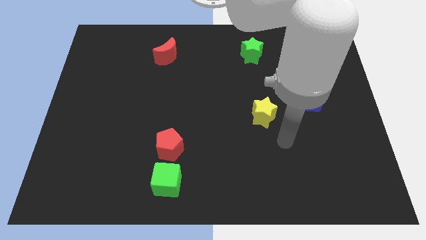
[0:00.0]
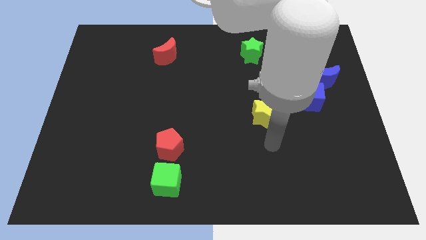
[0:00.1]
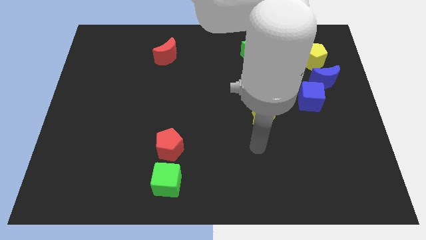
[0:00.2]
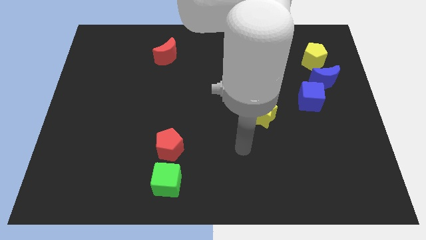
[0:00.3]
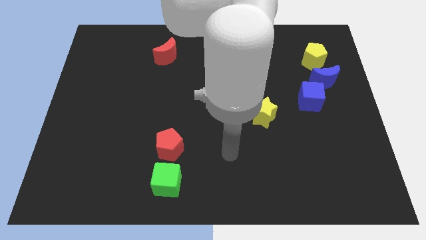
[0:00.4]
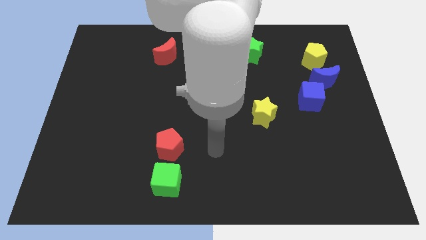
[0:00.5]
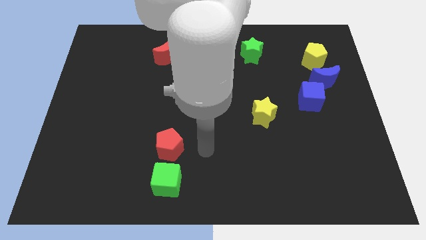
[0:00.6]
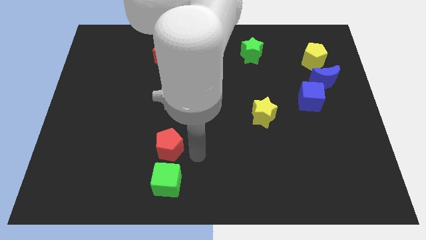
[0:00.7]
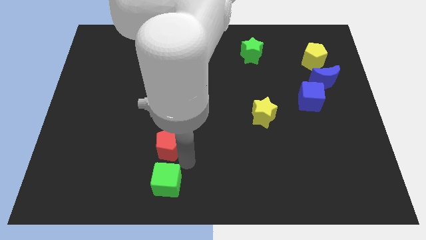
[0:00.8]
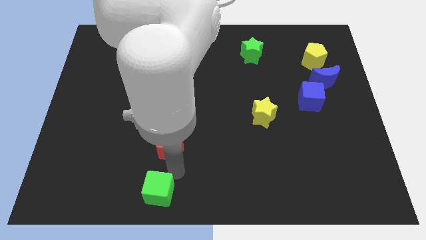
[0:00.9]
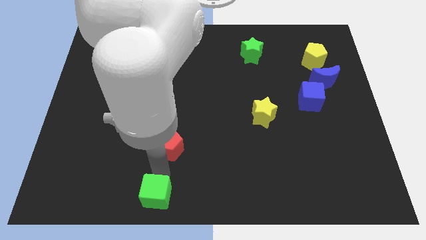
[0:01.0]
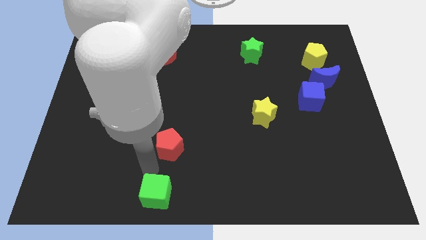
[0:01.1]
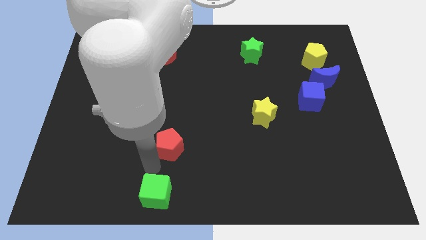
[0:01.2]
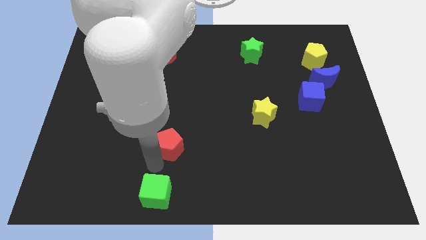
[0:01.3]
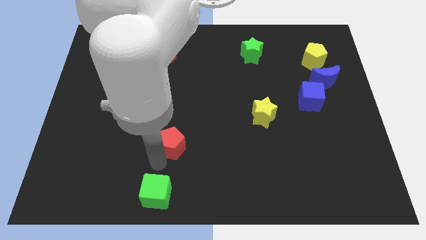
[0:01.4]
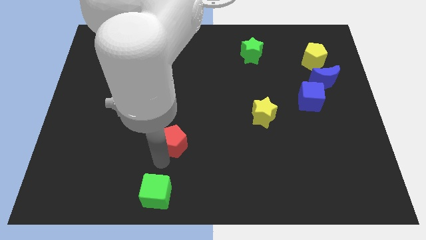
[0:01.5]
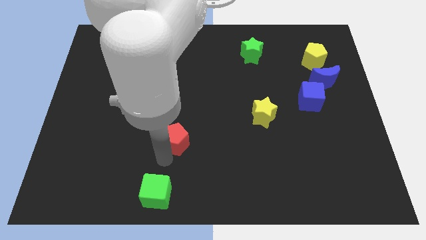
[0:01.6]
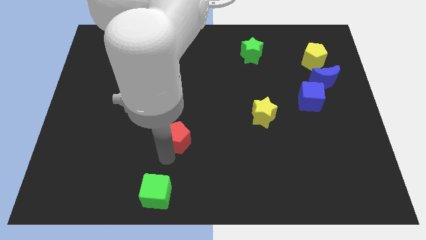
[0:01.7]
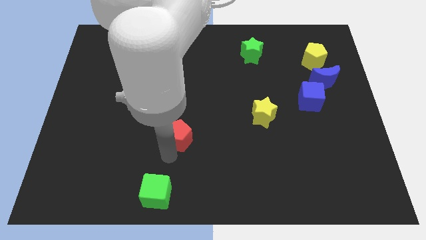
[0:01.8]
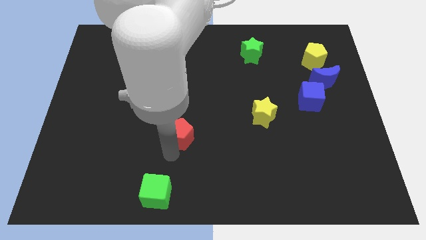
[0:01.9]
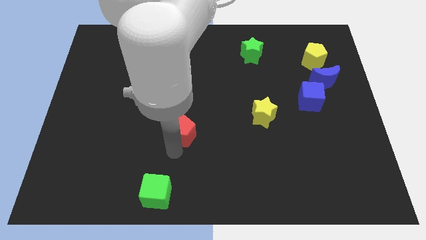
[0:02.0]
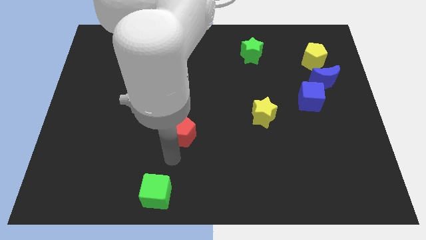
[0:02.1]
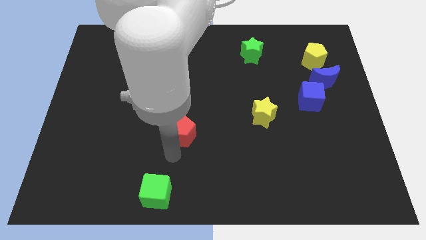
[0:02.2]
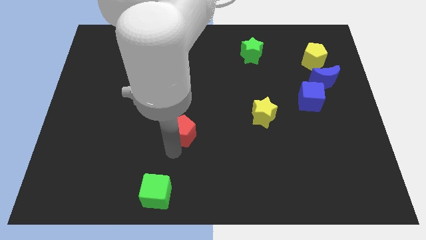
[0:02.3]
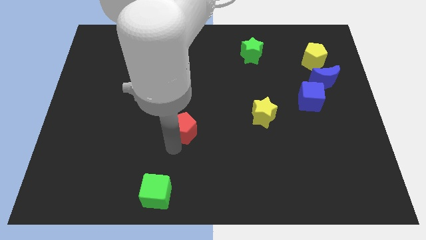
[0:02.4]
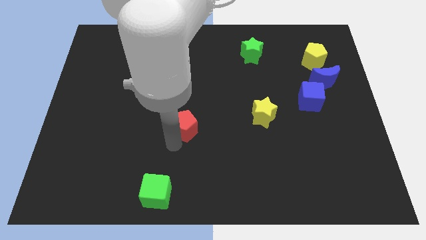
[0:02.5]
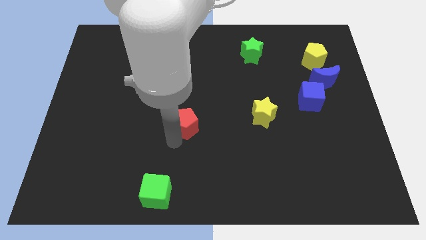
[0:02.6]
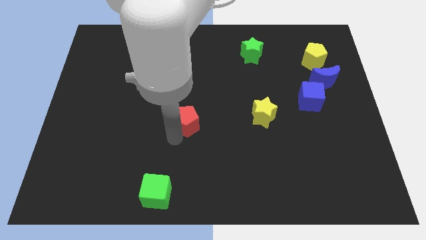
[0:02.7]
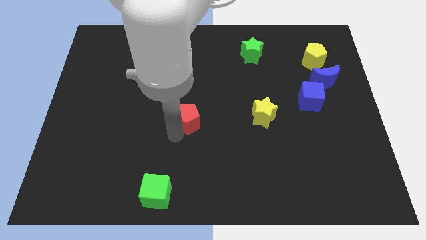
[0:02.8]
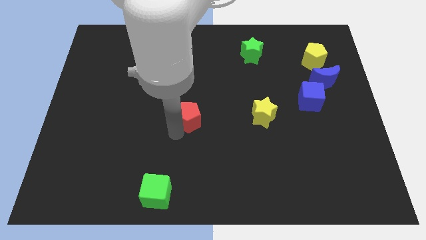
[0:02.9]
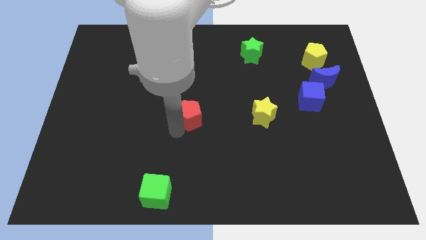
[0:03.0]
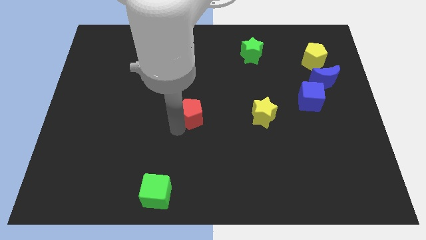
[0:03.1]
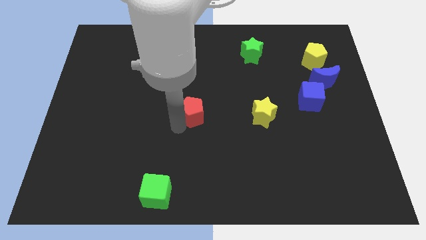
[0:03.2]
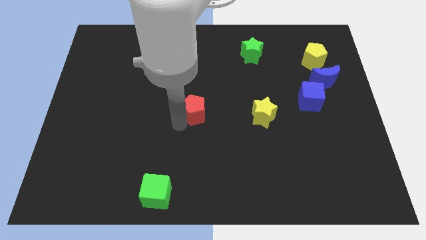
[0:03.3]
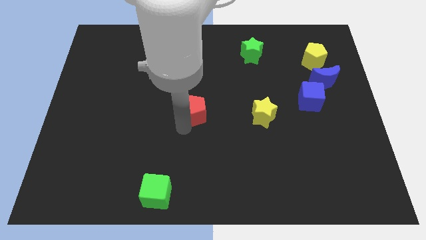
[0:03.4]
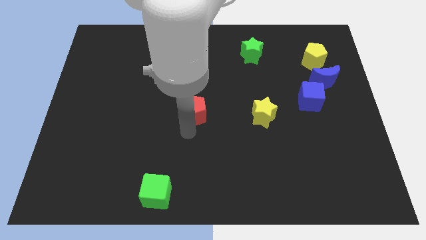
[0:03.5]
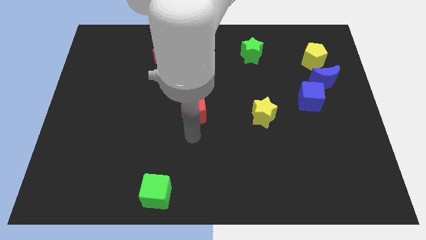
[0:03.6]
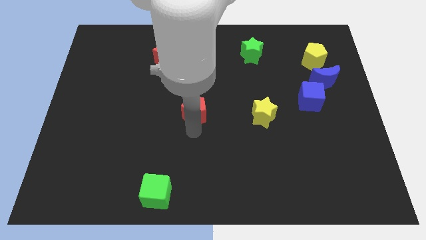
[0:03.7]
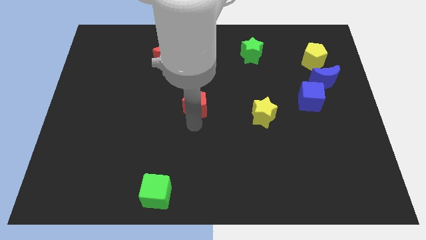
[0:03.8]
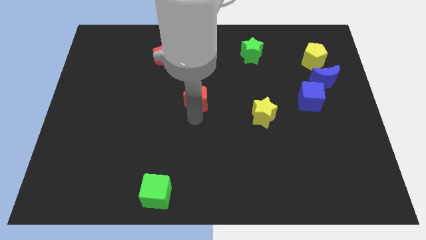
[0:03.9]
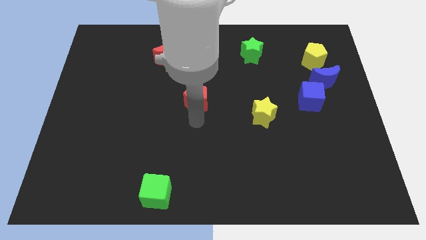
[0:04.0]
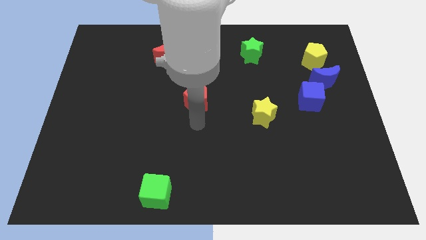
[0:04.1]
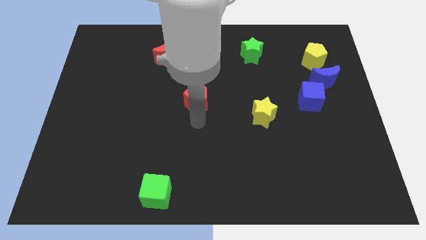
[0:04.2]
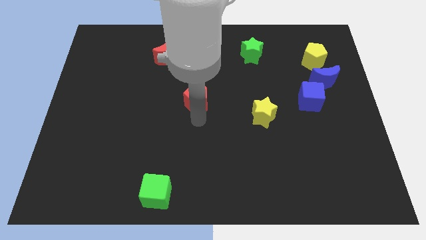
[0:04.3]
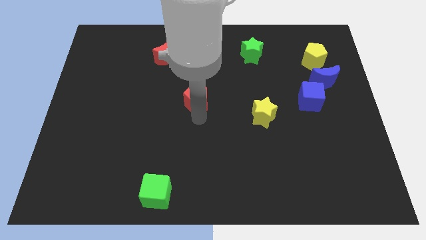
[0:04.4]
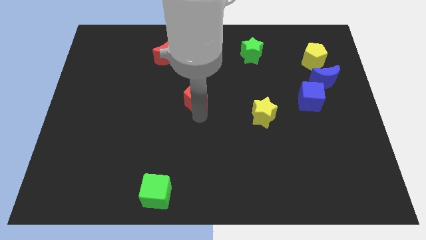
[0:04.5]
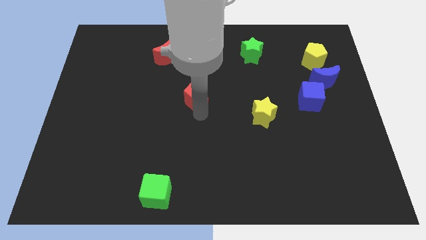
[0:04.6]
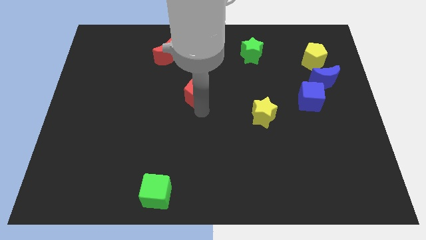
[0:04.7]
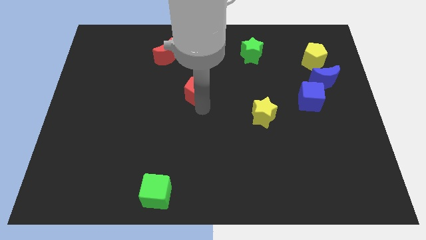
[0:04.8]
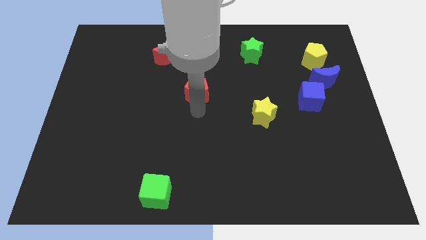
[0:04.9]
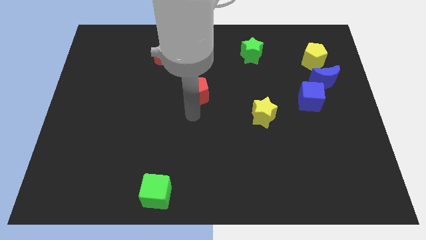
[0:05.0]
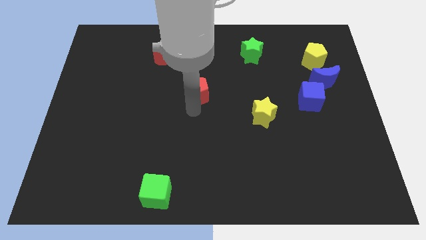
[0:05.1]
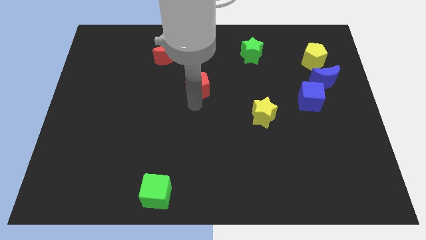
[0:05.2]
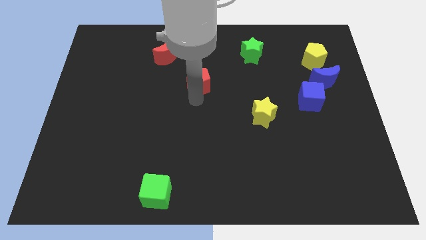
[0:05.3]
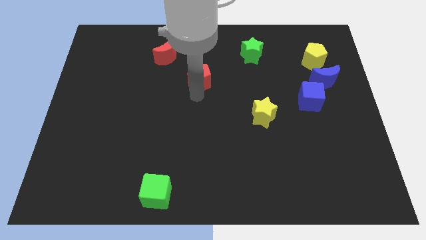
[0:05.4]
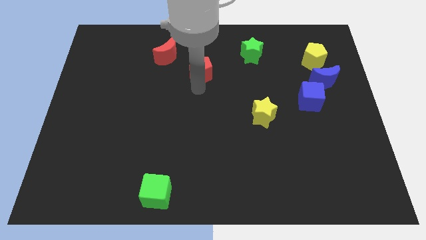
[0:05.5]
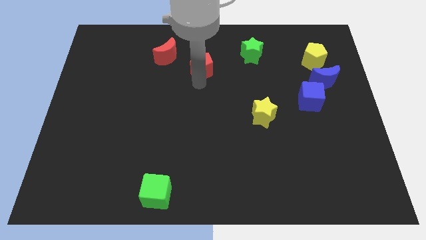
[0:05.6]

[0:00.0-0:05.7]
slide the red pentagon to the right side of the red moon

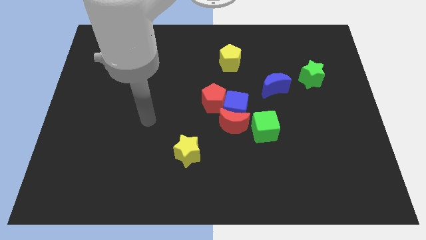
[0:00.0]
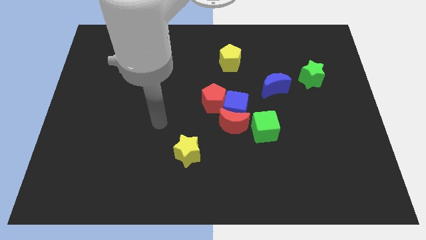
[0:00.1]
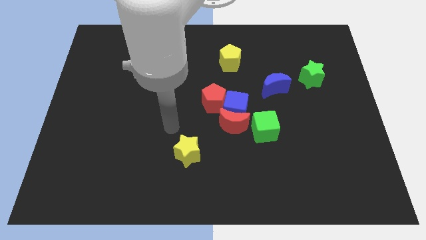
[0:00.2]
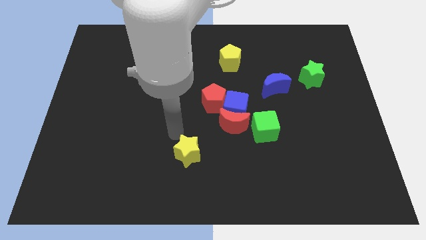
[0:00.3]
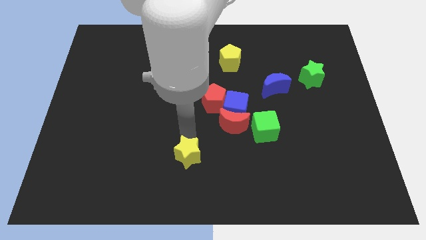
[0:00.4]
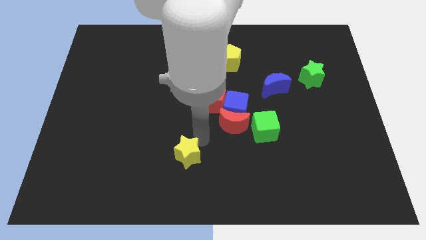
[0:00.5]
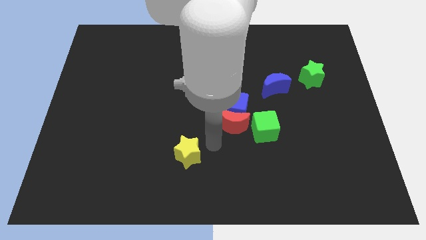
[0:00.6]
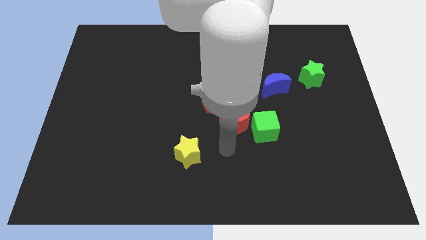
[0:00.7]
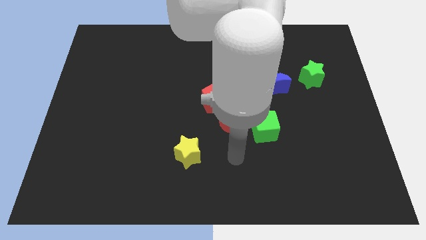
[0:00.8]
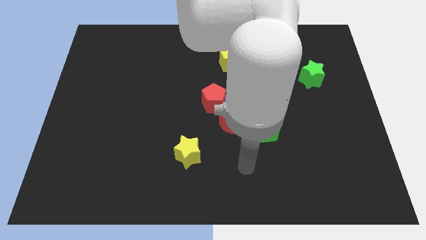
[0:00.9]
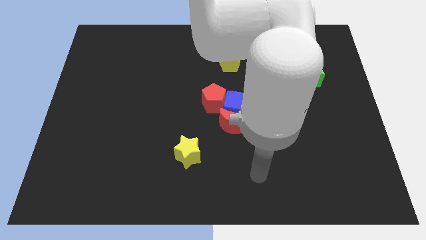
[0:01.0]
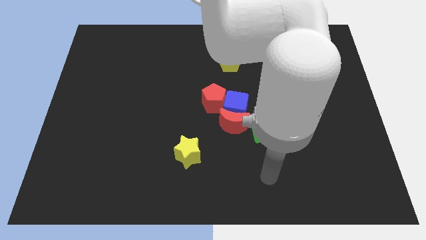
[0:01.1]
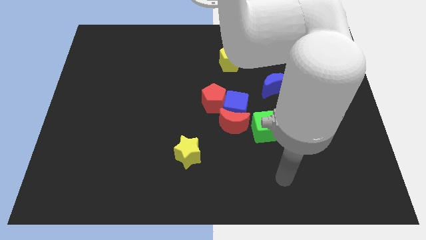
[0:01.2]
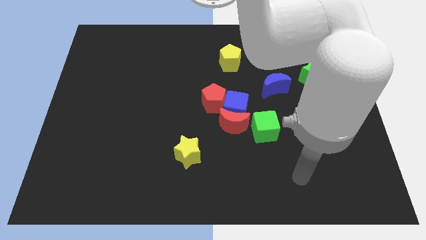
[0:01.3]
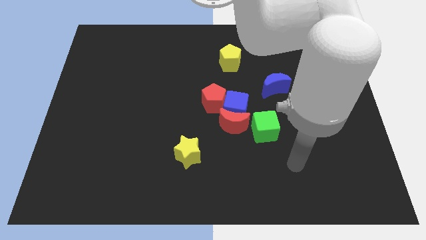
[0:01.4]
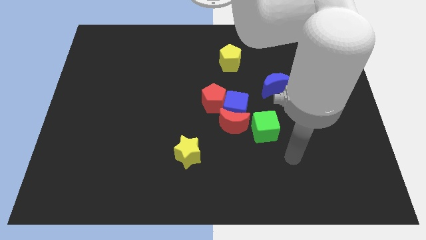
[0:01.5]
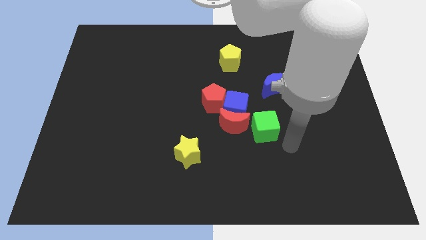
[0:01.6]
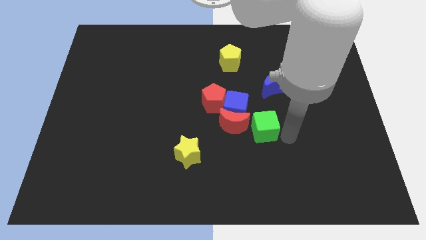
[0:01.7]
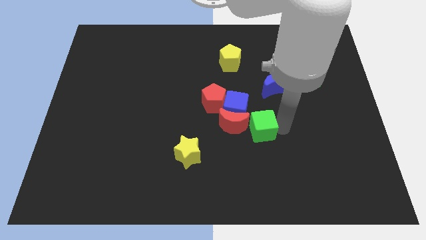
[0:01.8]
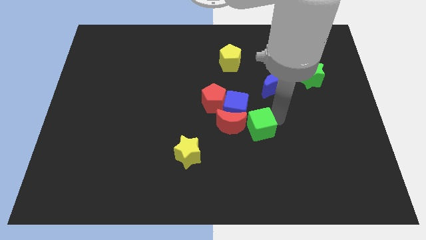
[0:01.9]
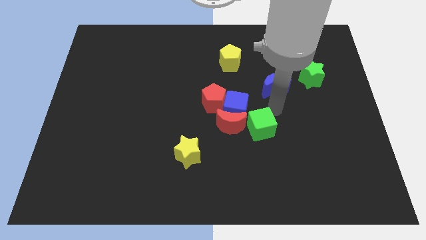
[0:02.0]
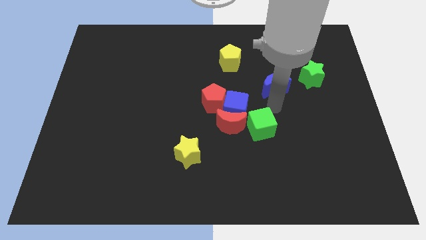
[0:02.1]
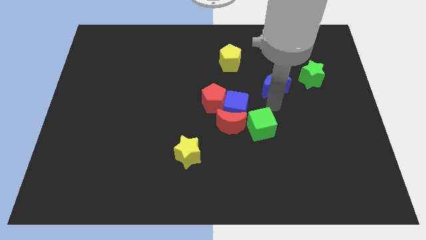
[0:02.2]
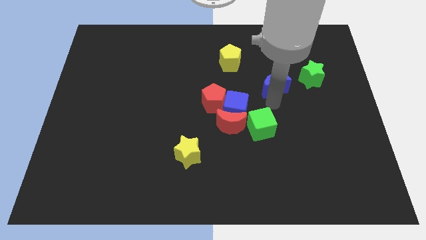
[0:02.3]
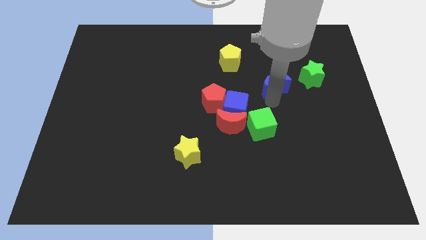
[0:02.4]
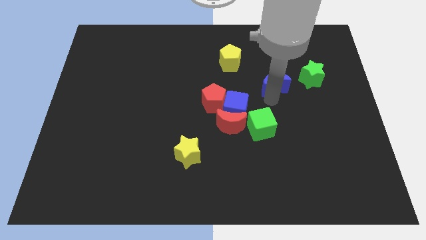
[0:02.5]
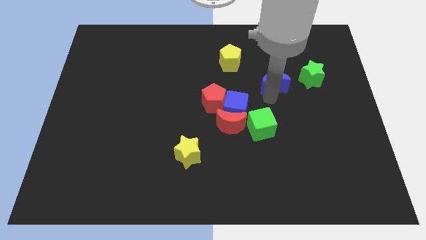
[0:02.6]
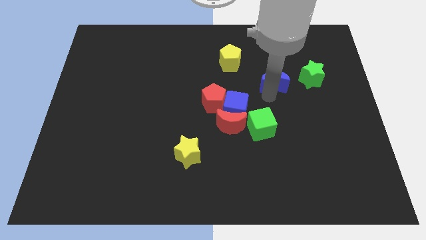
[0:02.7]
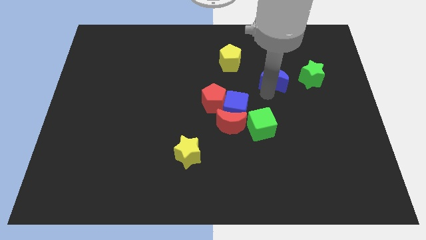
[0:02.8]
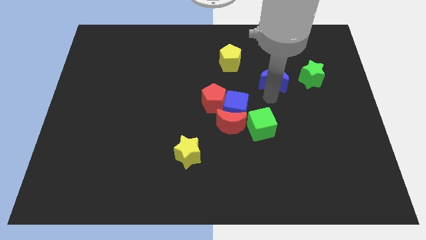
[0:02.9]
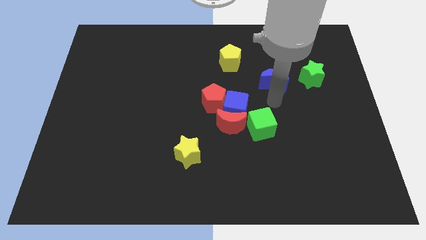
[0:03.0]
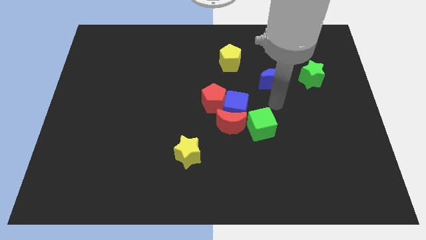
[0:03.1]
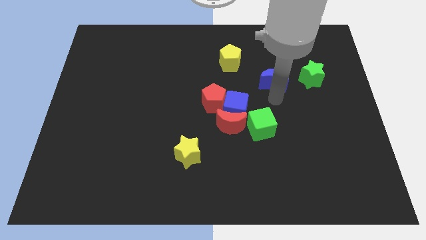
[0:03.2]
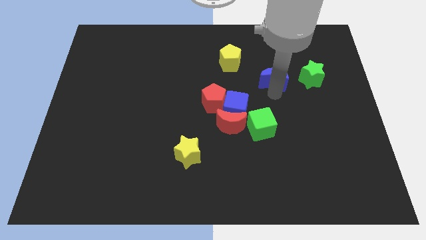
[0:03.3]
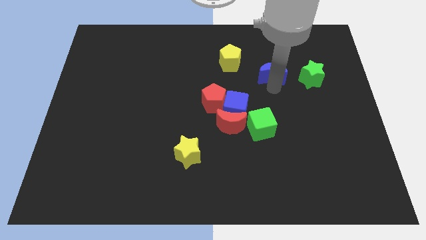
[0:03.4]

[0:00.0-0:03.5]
put the blue moon to the right of the yellow pentagon
